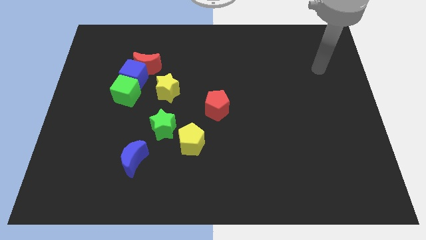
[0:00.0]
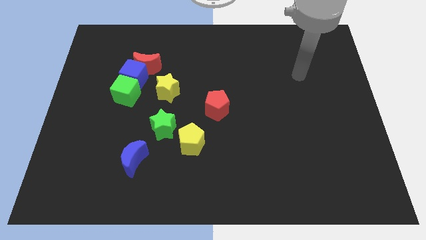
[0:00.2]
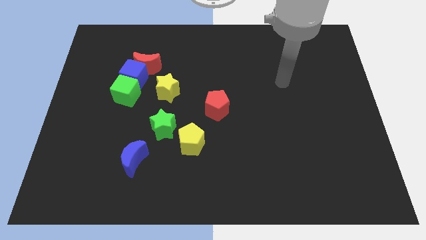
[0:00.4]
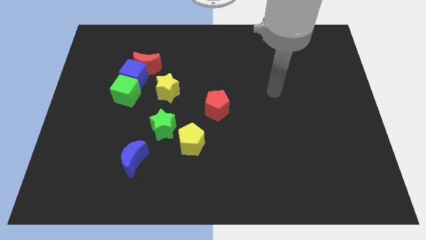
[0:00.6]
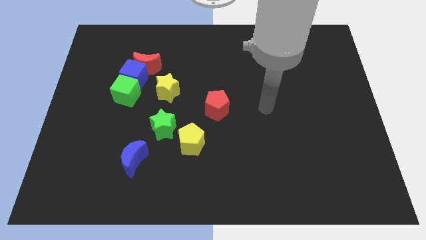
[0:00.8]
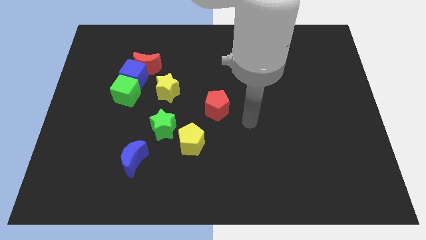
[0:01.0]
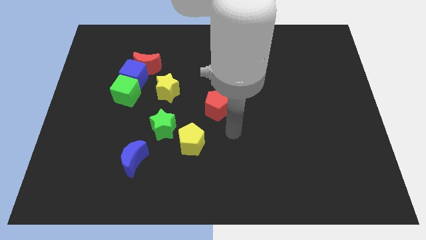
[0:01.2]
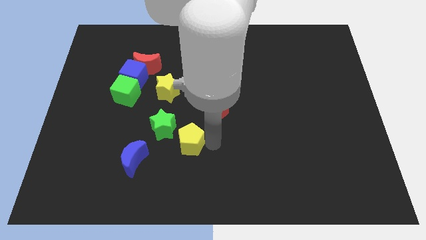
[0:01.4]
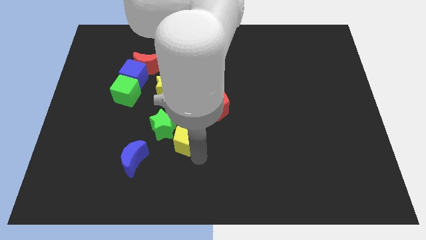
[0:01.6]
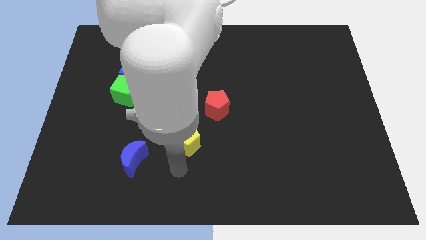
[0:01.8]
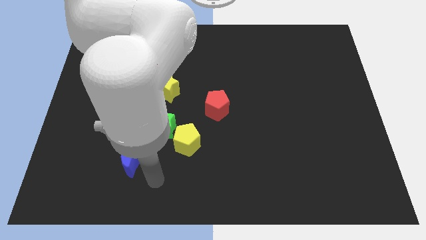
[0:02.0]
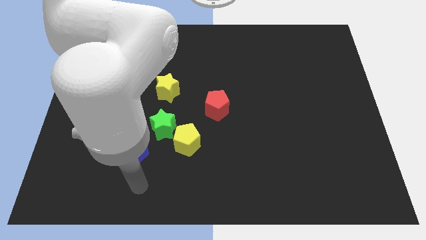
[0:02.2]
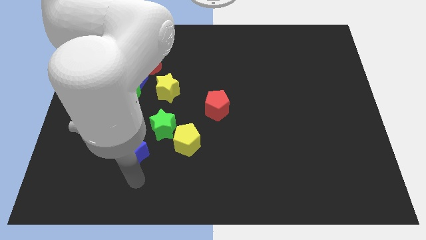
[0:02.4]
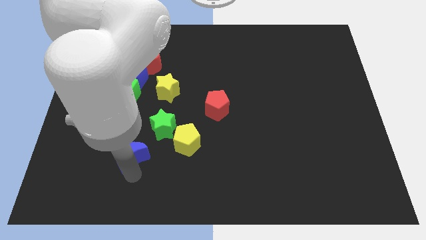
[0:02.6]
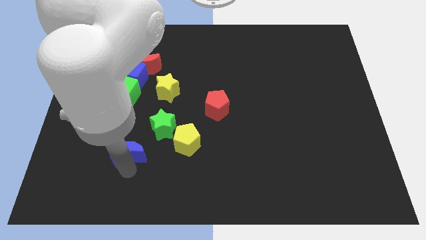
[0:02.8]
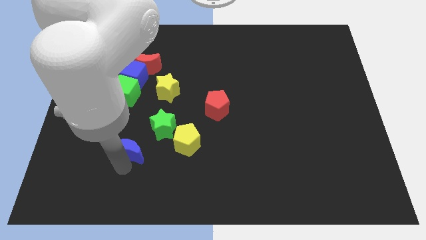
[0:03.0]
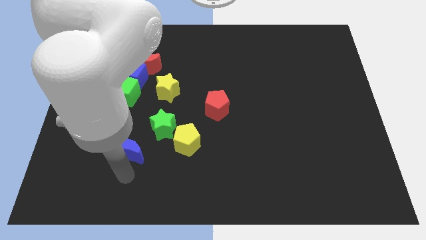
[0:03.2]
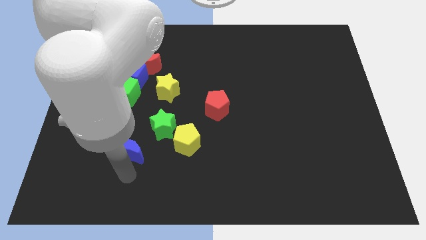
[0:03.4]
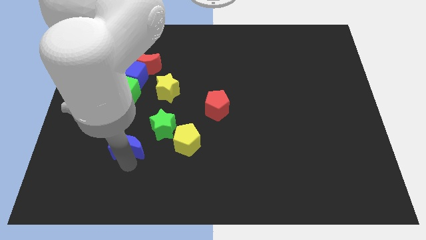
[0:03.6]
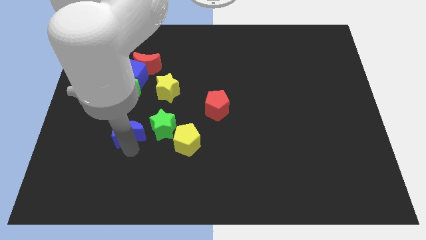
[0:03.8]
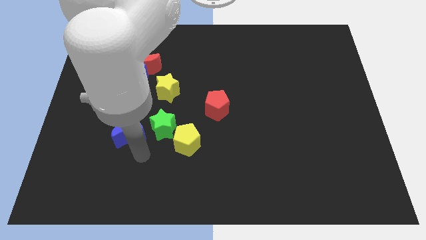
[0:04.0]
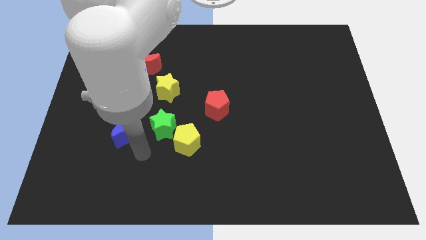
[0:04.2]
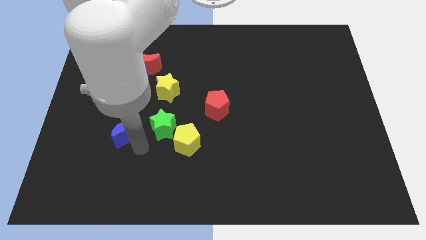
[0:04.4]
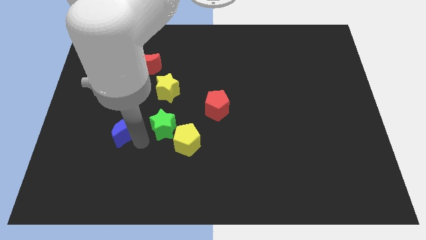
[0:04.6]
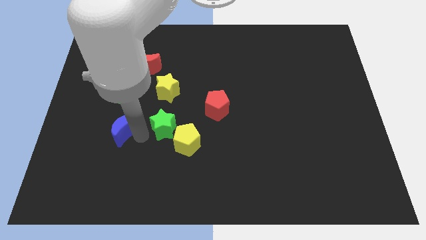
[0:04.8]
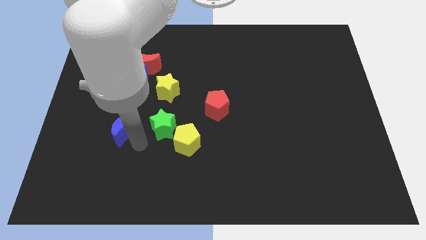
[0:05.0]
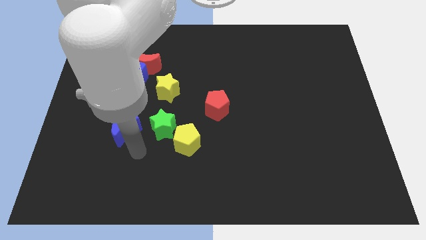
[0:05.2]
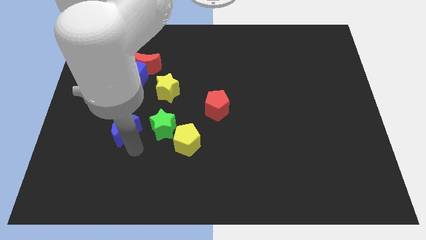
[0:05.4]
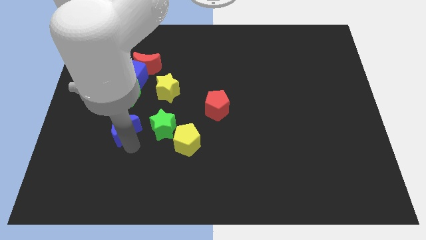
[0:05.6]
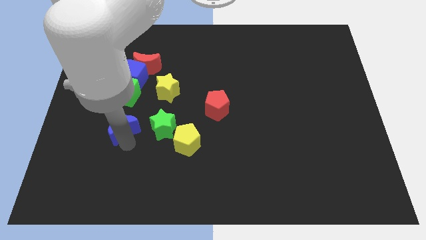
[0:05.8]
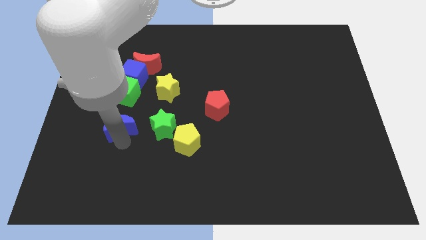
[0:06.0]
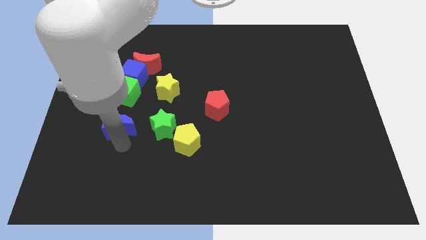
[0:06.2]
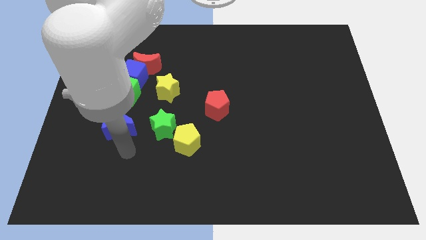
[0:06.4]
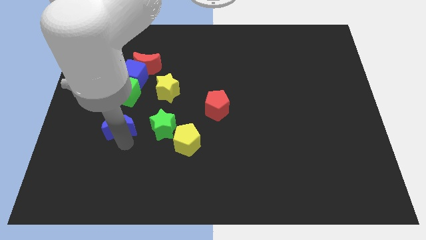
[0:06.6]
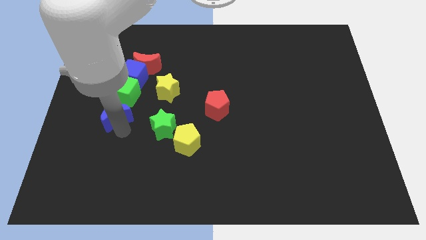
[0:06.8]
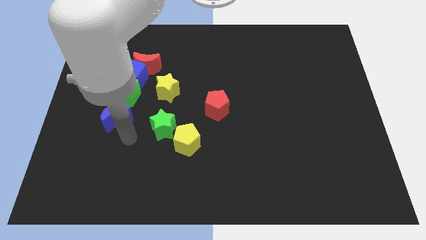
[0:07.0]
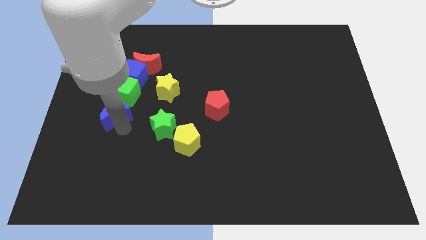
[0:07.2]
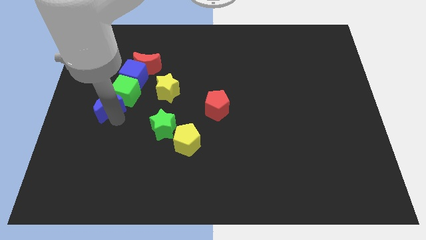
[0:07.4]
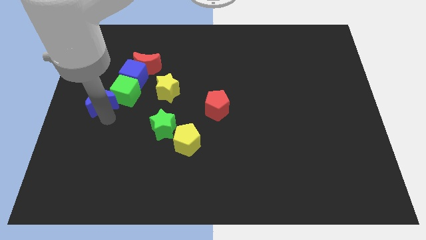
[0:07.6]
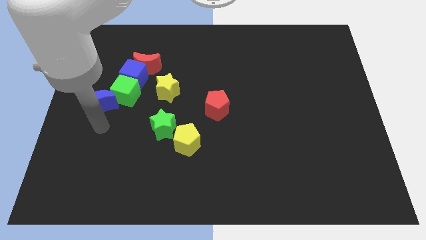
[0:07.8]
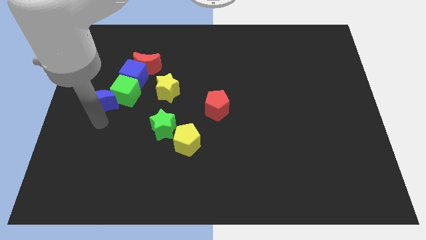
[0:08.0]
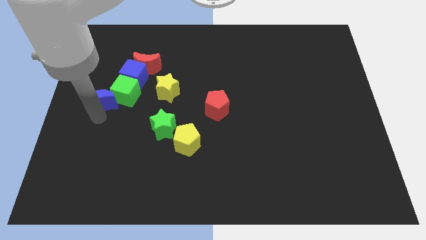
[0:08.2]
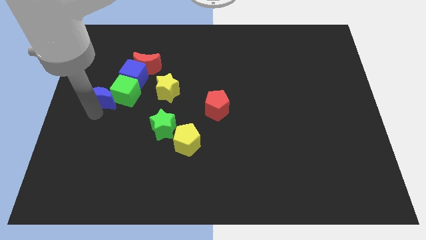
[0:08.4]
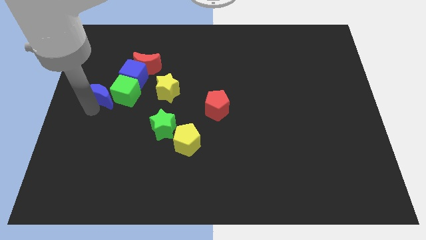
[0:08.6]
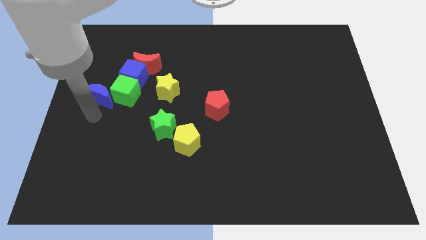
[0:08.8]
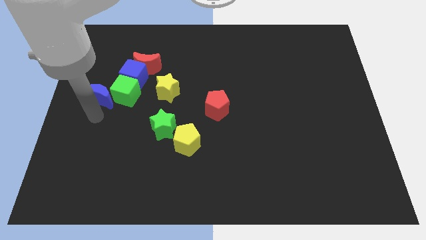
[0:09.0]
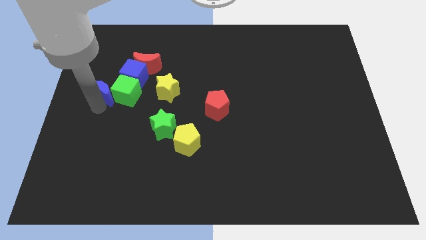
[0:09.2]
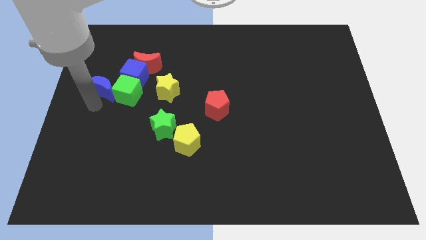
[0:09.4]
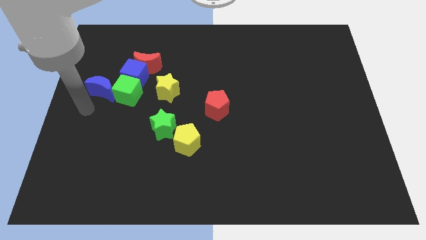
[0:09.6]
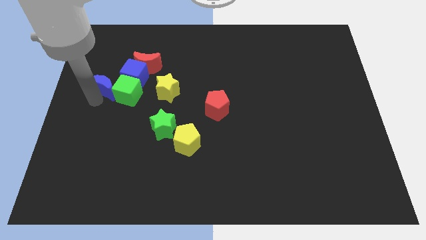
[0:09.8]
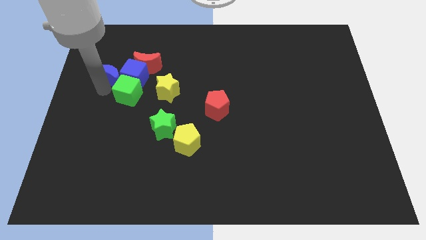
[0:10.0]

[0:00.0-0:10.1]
push the blue moon to the top side of the green cube
